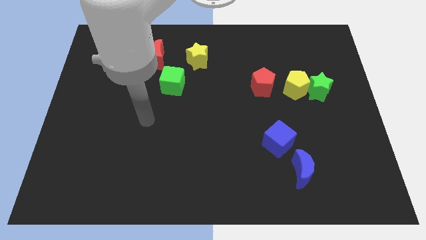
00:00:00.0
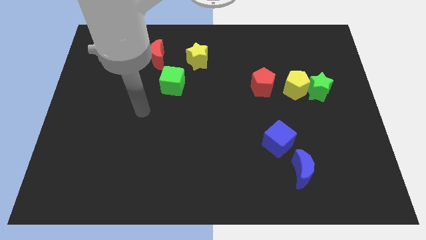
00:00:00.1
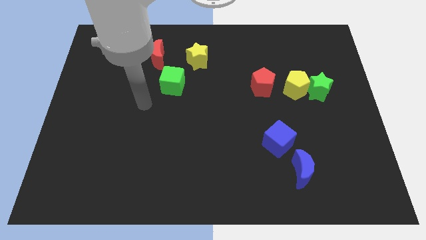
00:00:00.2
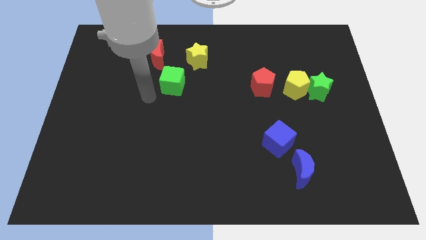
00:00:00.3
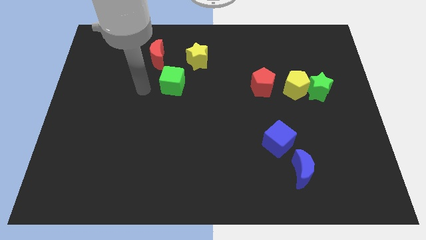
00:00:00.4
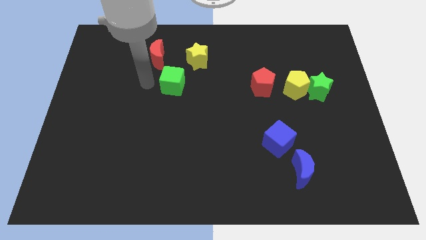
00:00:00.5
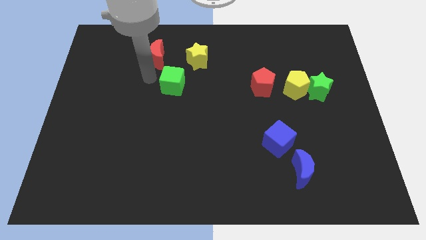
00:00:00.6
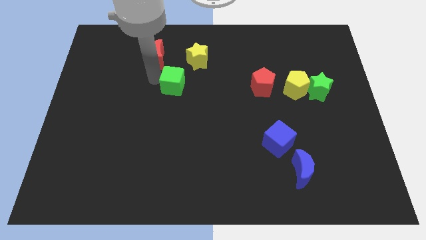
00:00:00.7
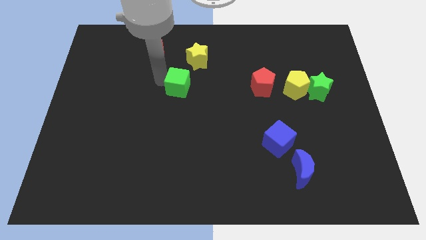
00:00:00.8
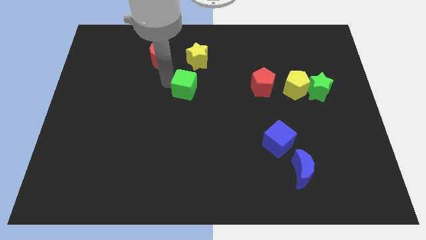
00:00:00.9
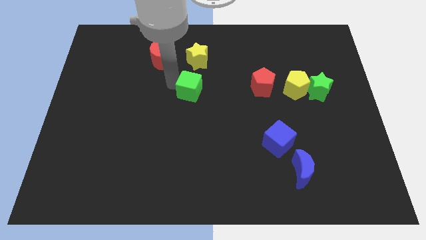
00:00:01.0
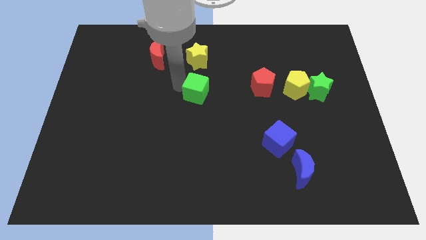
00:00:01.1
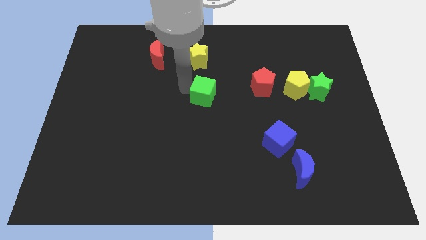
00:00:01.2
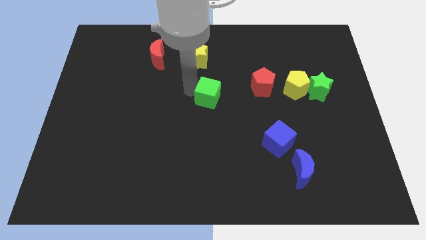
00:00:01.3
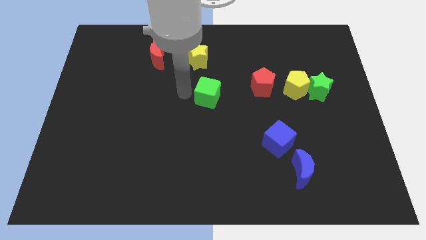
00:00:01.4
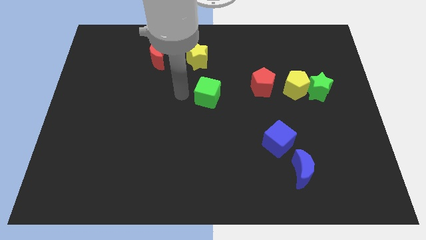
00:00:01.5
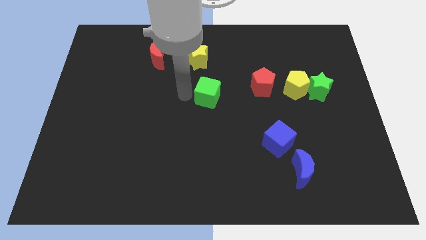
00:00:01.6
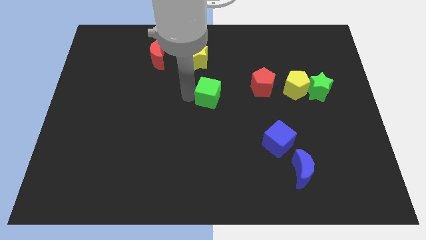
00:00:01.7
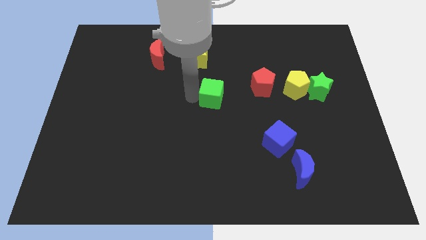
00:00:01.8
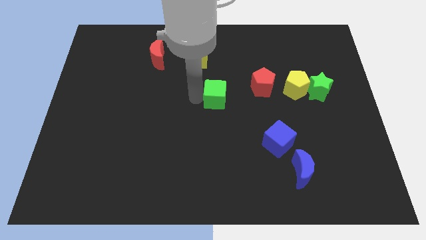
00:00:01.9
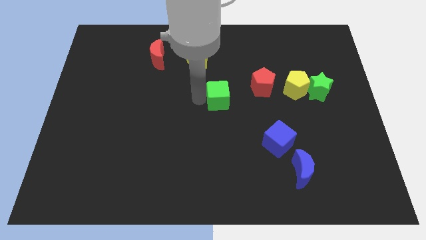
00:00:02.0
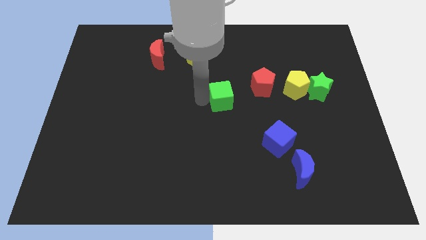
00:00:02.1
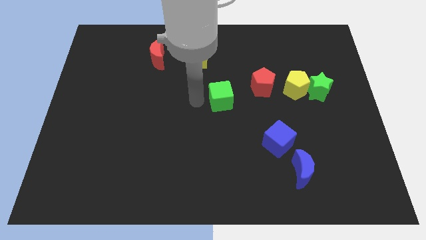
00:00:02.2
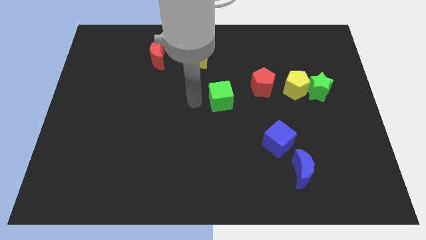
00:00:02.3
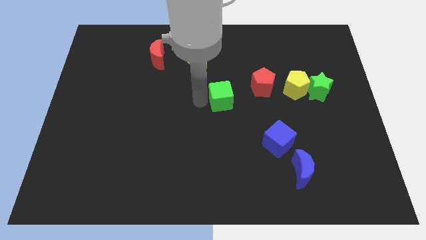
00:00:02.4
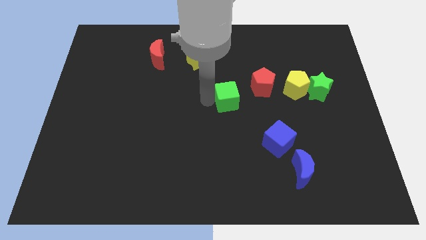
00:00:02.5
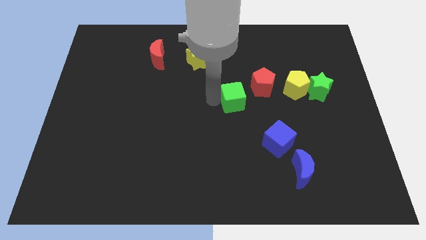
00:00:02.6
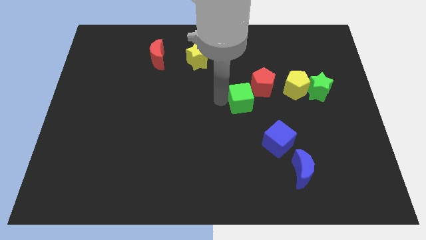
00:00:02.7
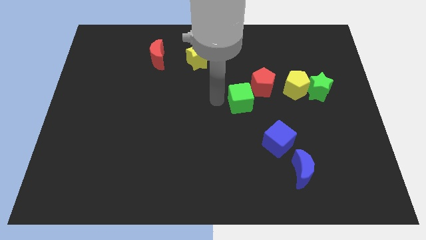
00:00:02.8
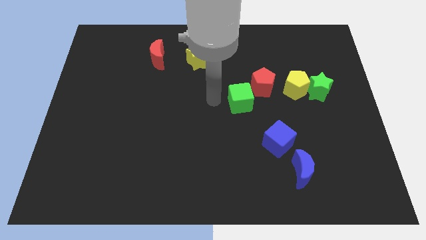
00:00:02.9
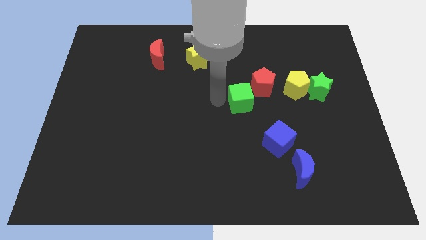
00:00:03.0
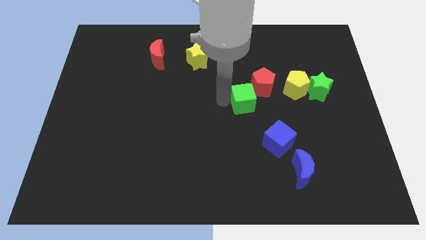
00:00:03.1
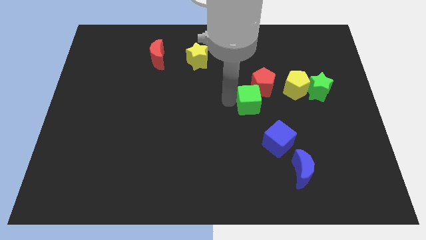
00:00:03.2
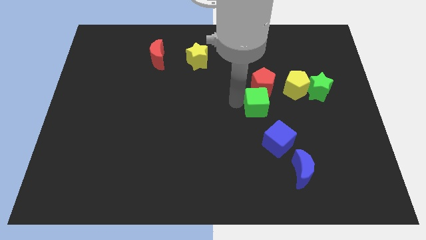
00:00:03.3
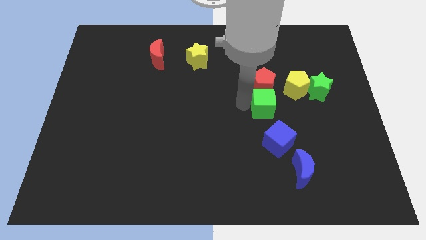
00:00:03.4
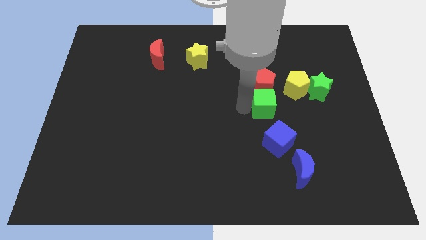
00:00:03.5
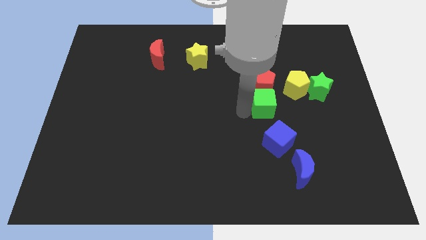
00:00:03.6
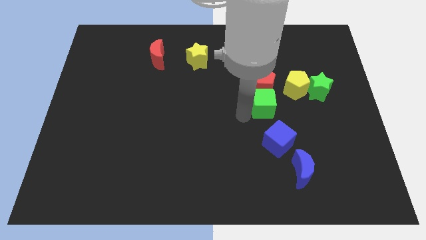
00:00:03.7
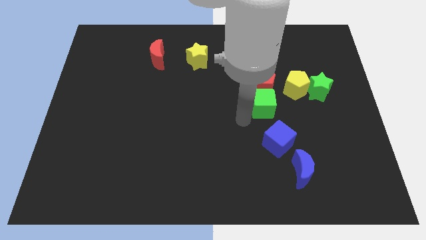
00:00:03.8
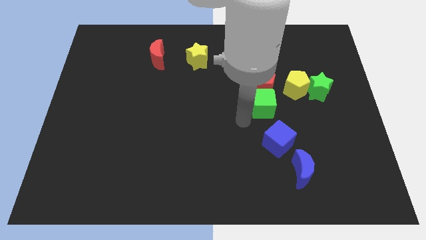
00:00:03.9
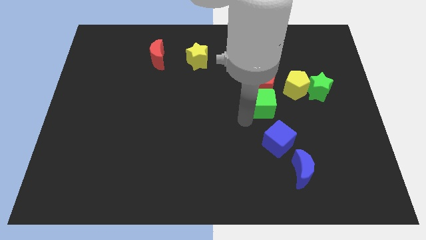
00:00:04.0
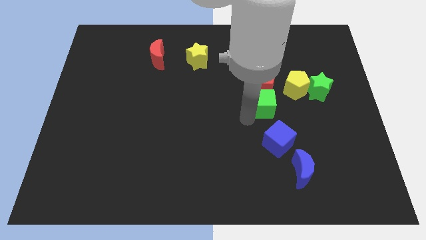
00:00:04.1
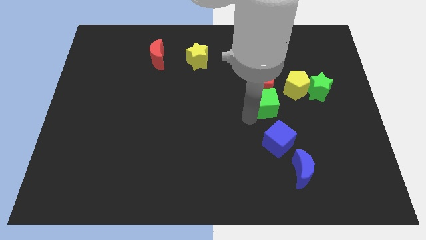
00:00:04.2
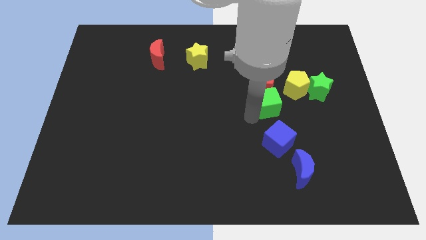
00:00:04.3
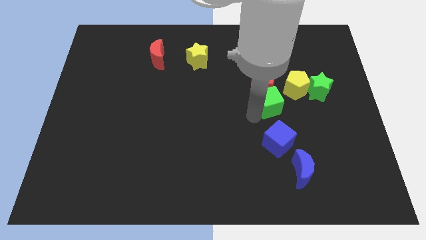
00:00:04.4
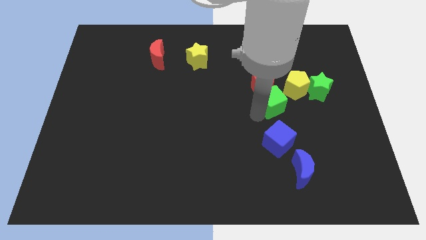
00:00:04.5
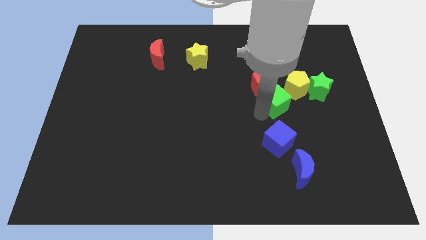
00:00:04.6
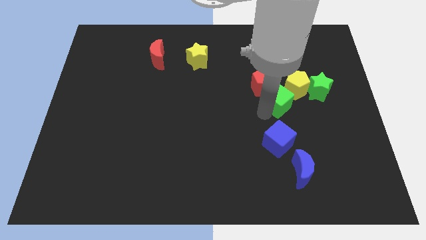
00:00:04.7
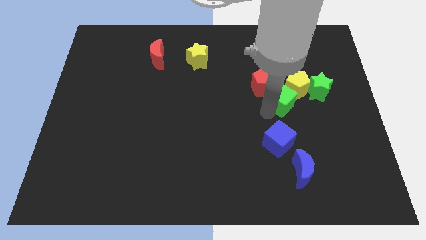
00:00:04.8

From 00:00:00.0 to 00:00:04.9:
move the green cube close to the yellow pentagon

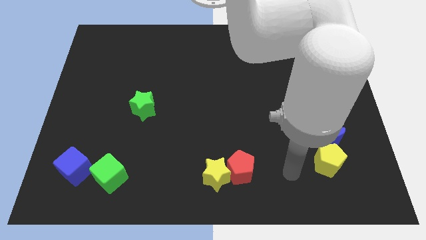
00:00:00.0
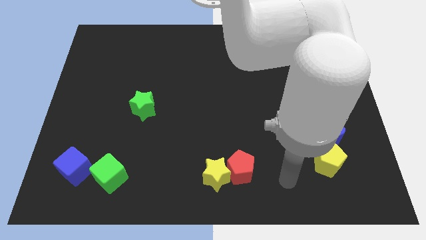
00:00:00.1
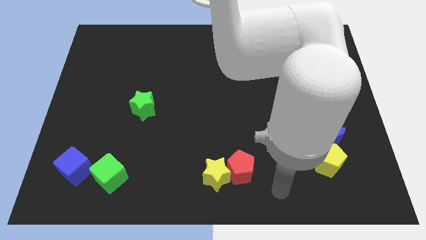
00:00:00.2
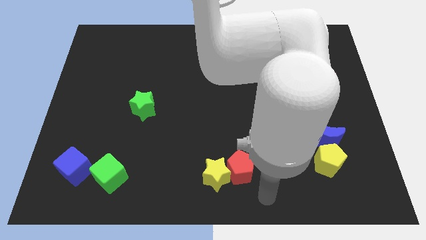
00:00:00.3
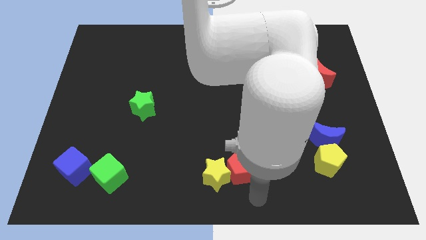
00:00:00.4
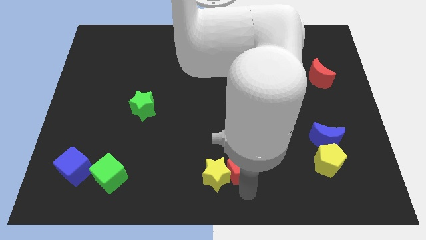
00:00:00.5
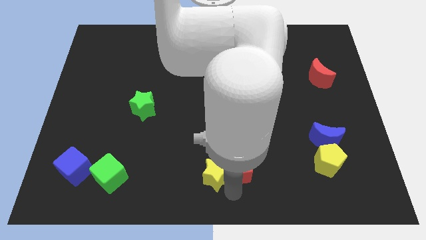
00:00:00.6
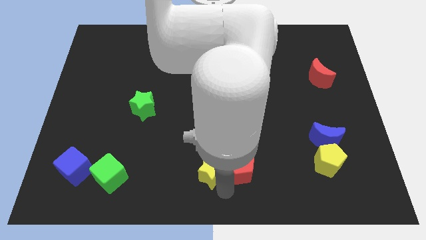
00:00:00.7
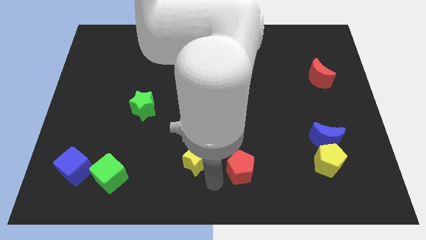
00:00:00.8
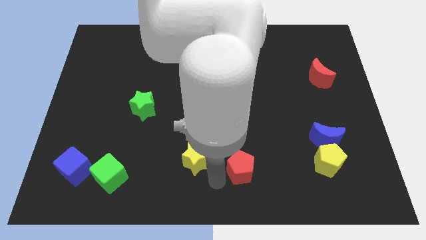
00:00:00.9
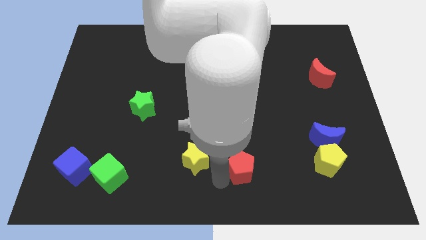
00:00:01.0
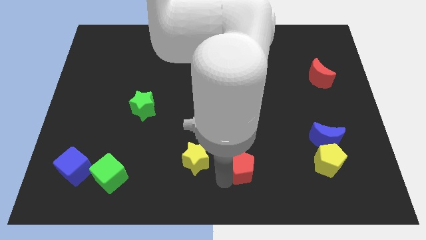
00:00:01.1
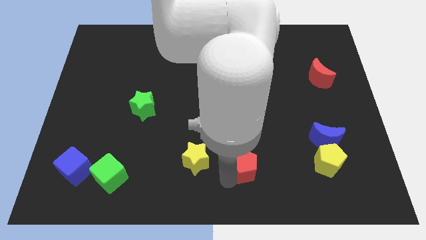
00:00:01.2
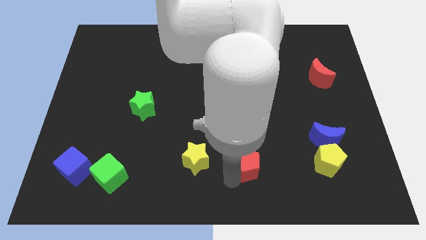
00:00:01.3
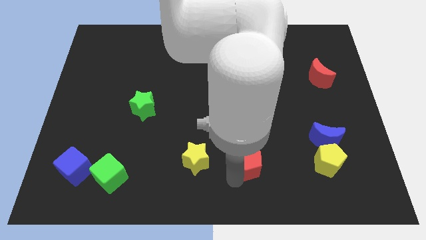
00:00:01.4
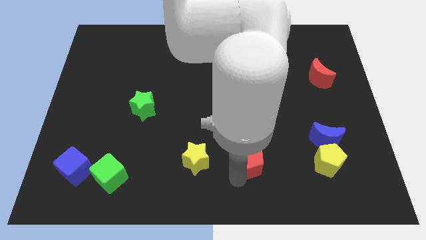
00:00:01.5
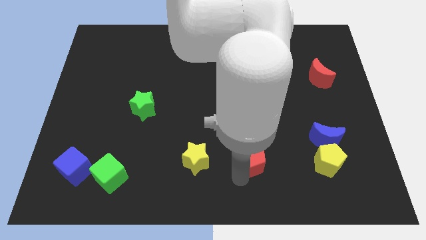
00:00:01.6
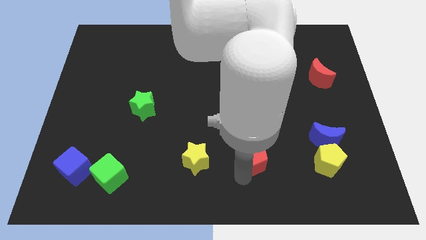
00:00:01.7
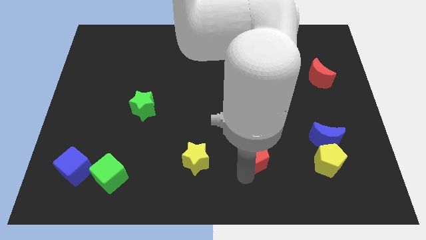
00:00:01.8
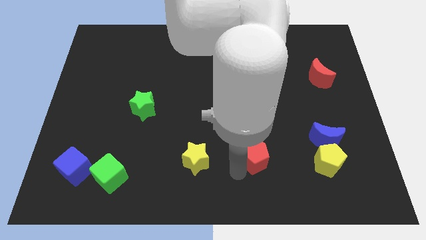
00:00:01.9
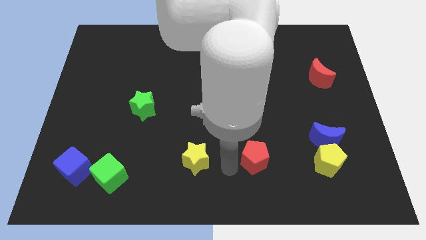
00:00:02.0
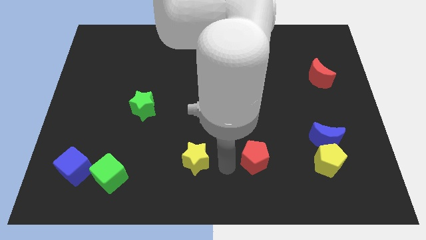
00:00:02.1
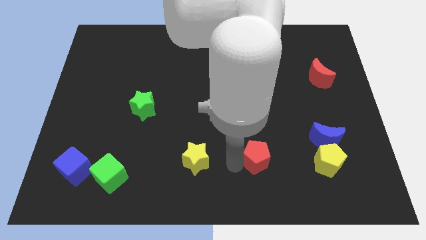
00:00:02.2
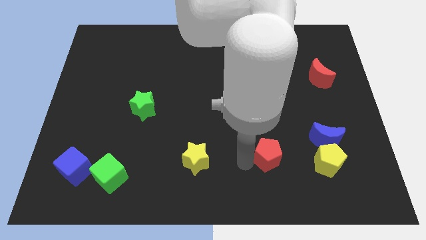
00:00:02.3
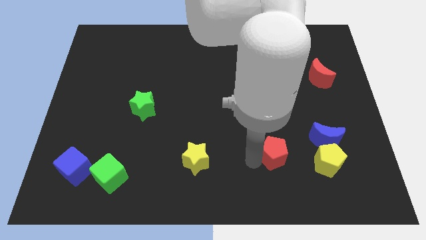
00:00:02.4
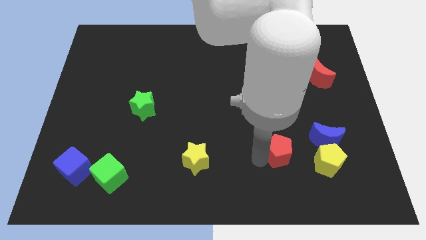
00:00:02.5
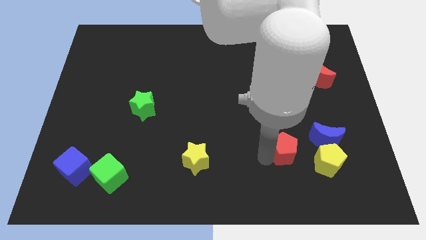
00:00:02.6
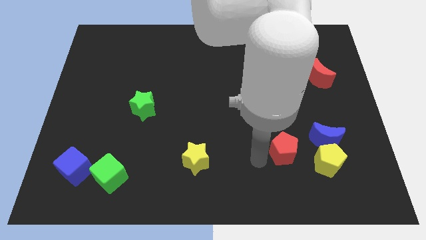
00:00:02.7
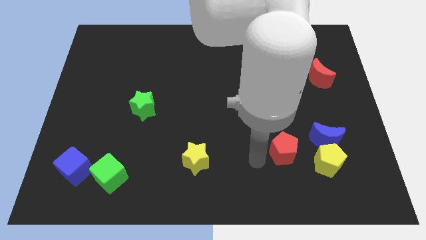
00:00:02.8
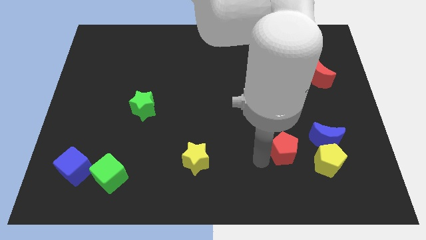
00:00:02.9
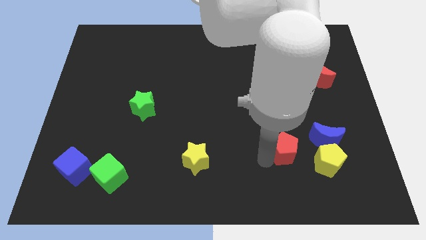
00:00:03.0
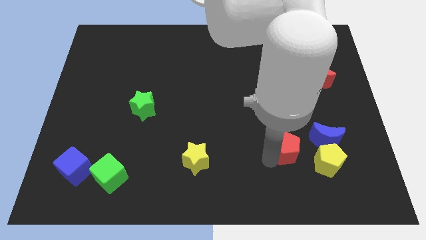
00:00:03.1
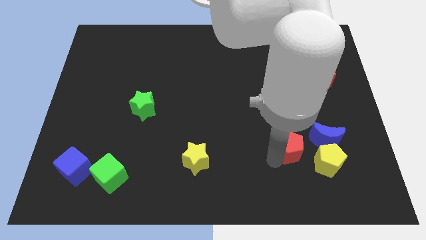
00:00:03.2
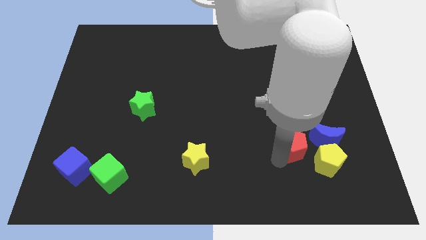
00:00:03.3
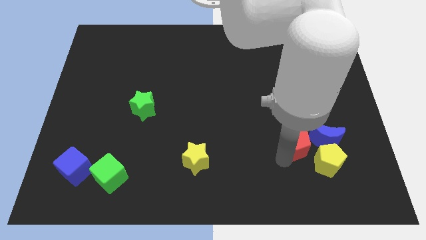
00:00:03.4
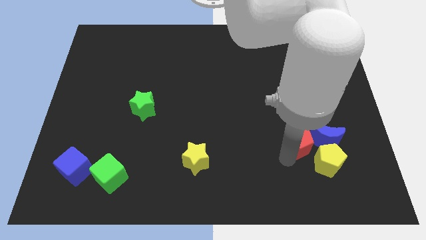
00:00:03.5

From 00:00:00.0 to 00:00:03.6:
slide the red pentagon close to the blue moon
